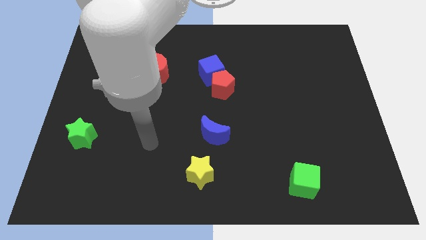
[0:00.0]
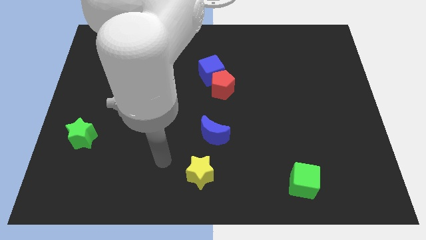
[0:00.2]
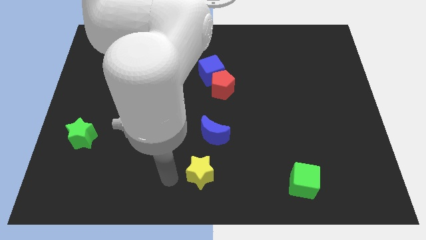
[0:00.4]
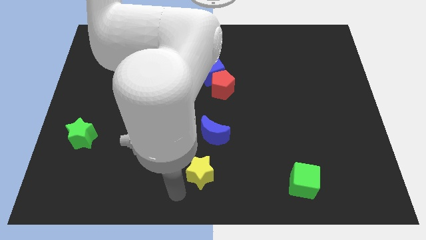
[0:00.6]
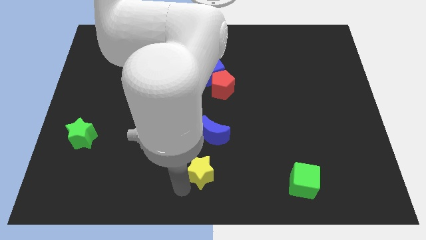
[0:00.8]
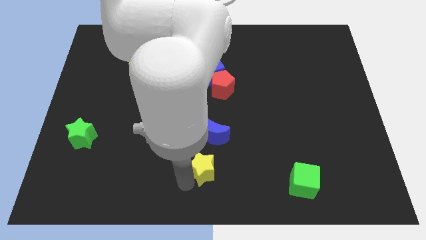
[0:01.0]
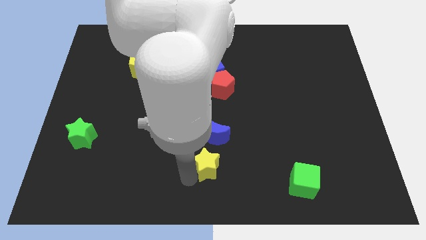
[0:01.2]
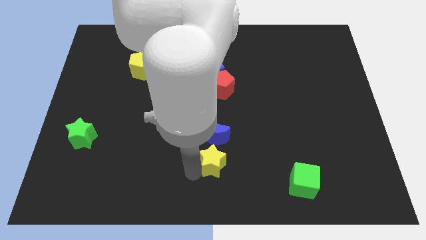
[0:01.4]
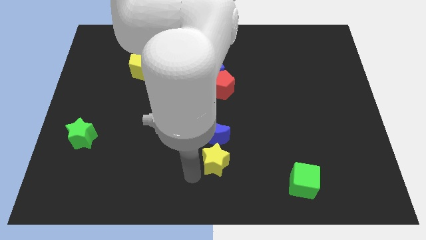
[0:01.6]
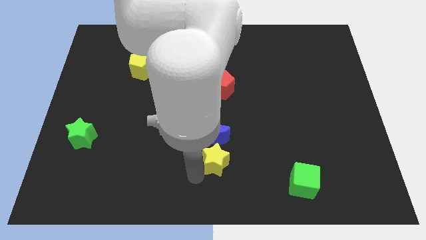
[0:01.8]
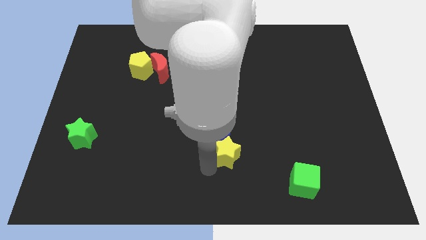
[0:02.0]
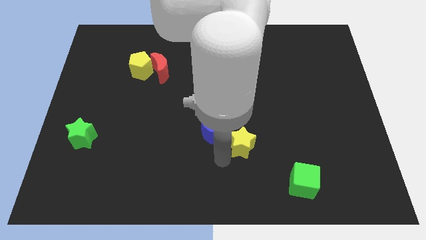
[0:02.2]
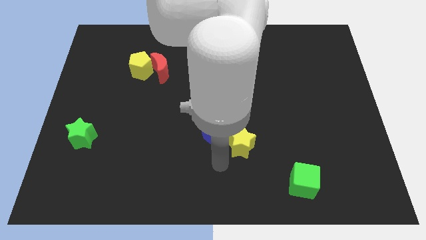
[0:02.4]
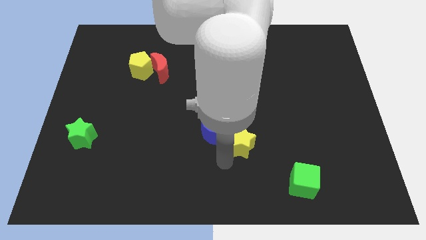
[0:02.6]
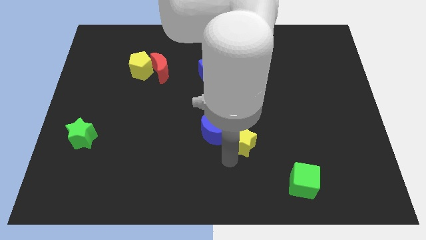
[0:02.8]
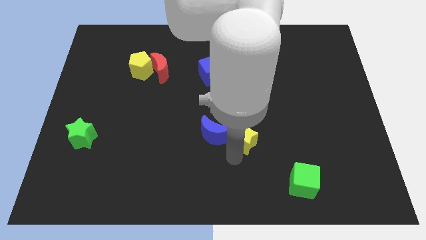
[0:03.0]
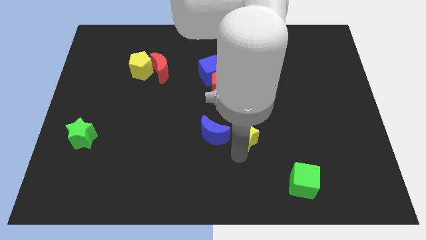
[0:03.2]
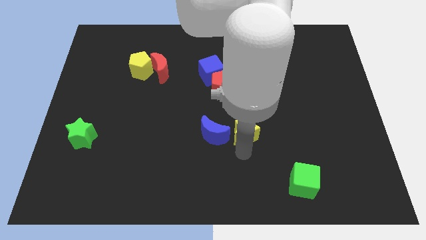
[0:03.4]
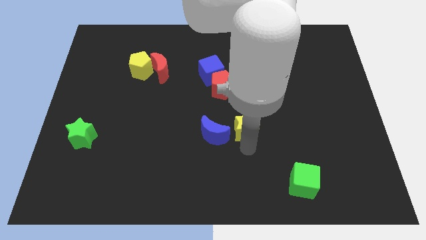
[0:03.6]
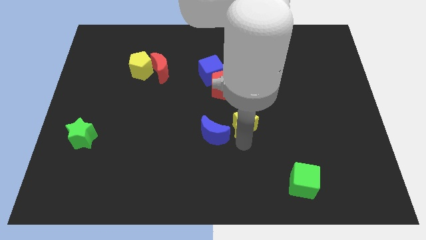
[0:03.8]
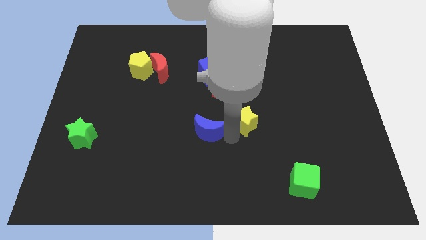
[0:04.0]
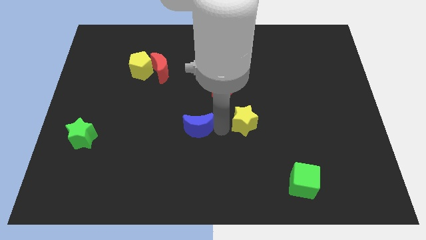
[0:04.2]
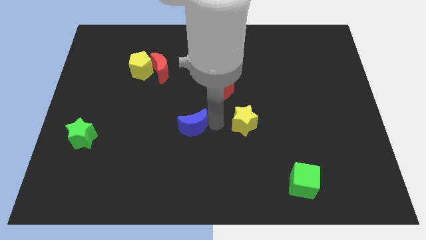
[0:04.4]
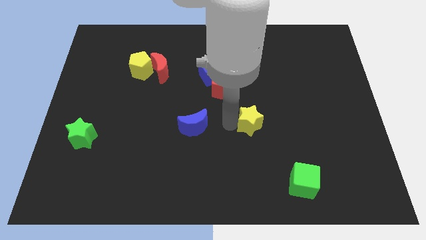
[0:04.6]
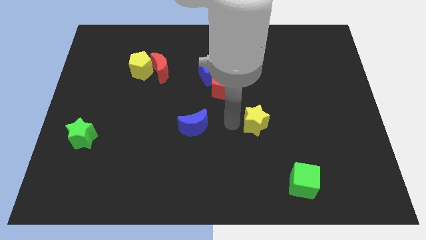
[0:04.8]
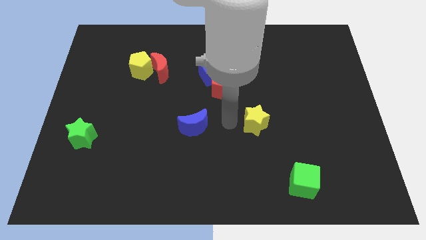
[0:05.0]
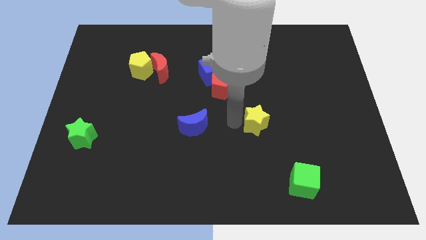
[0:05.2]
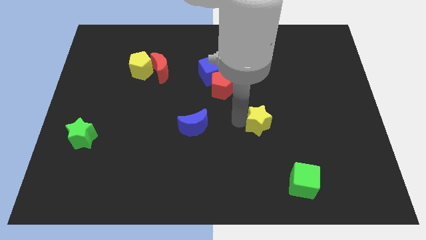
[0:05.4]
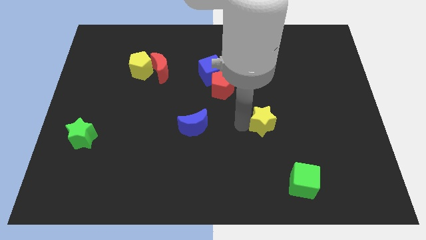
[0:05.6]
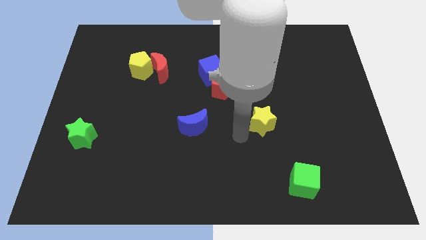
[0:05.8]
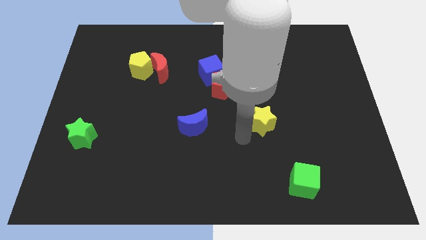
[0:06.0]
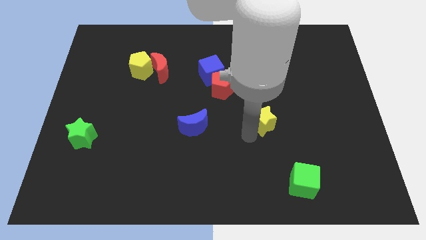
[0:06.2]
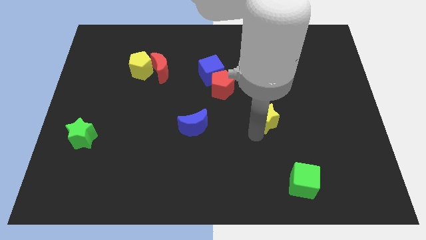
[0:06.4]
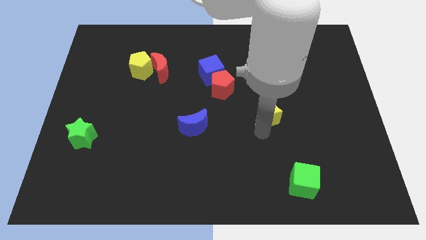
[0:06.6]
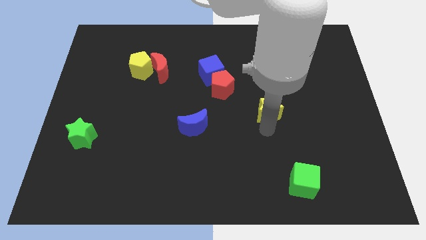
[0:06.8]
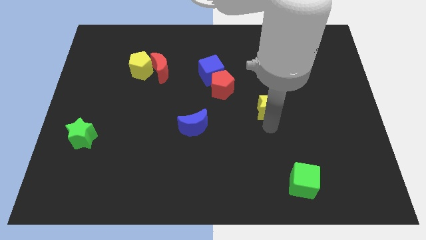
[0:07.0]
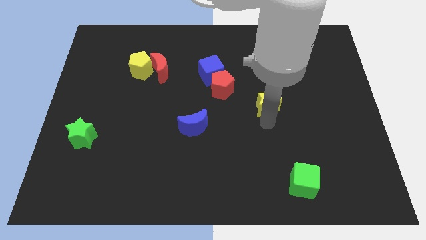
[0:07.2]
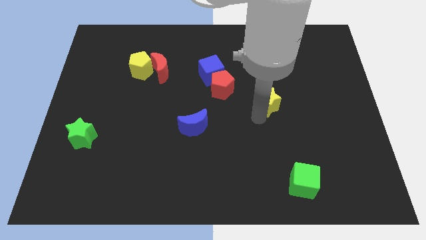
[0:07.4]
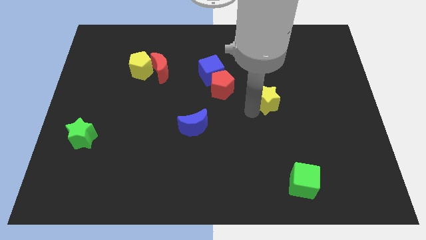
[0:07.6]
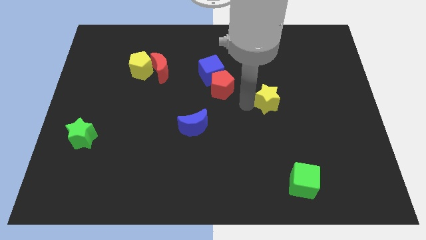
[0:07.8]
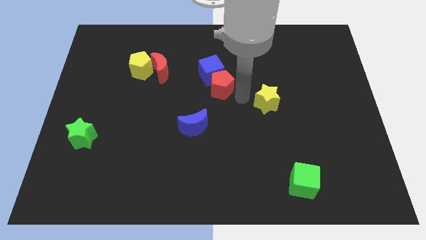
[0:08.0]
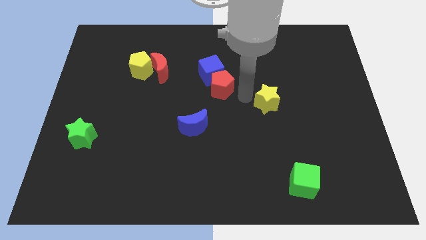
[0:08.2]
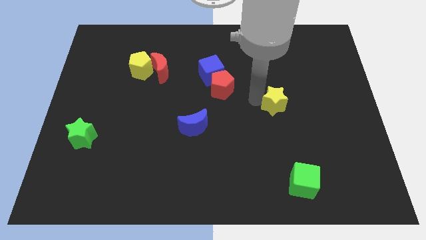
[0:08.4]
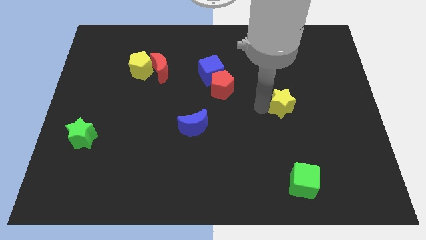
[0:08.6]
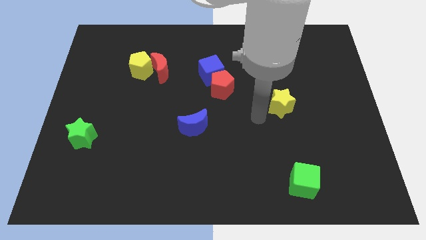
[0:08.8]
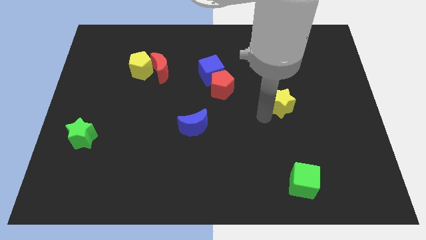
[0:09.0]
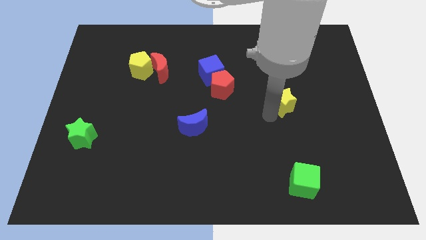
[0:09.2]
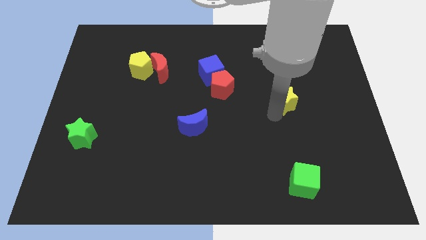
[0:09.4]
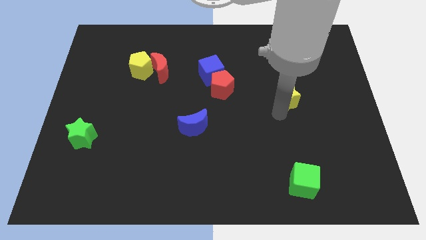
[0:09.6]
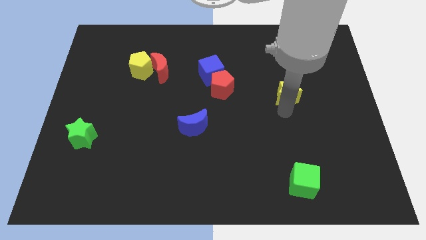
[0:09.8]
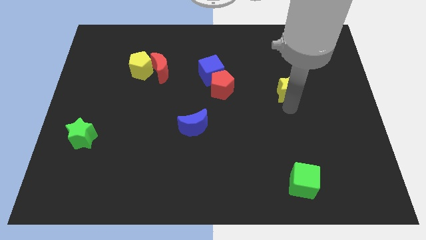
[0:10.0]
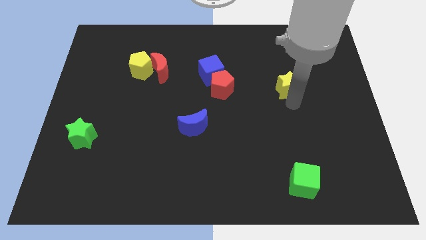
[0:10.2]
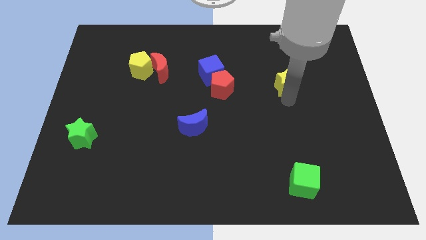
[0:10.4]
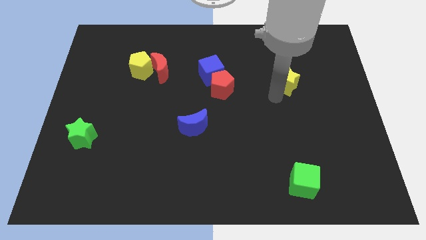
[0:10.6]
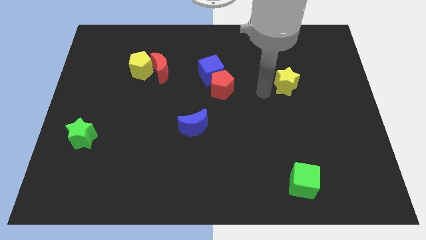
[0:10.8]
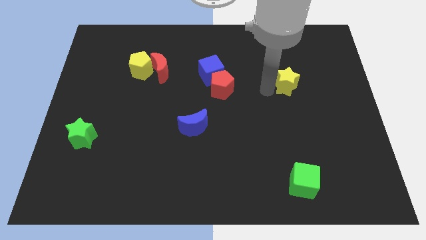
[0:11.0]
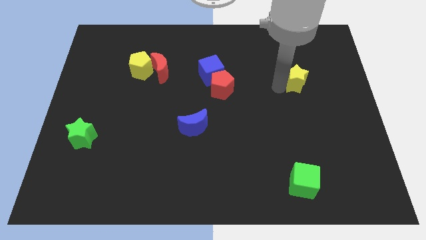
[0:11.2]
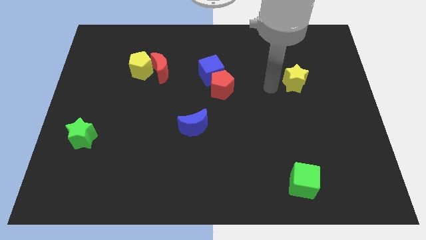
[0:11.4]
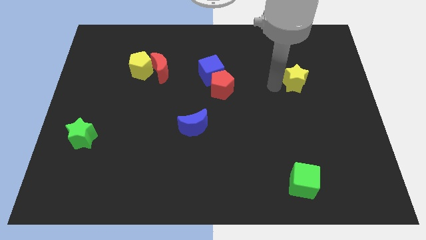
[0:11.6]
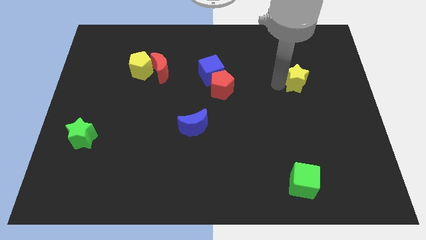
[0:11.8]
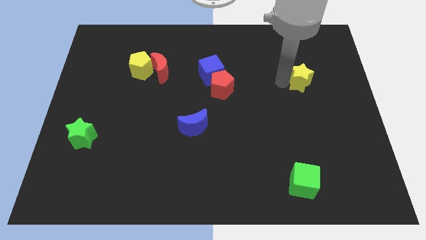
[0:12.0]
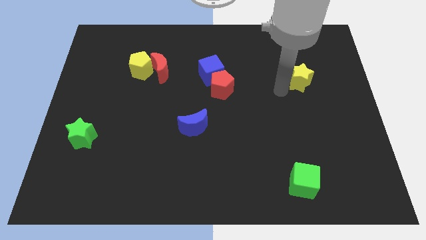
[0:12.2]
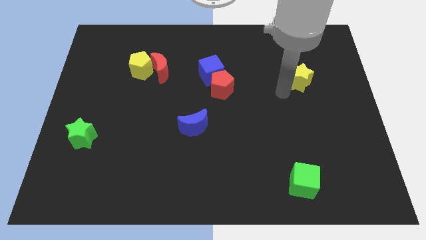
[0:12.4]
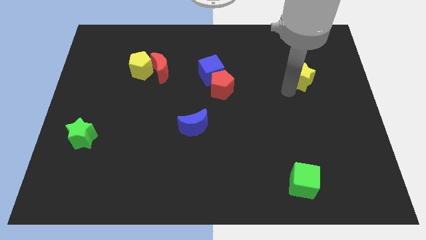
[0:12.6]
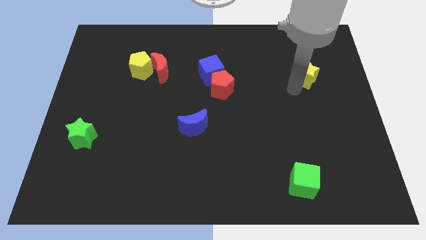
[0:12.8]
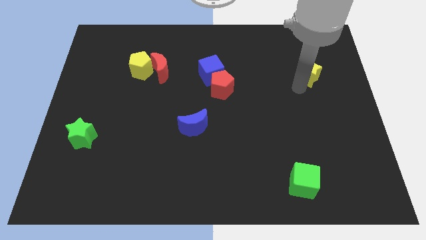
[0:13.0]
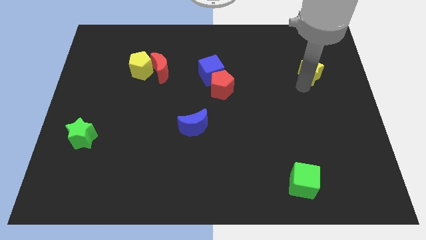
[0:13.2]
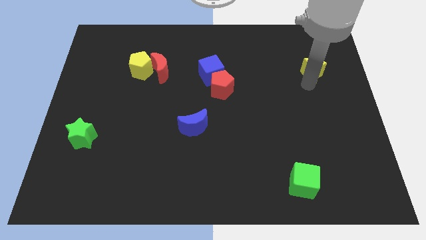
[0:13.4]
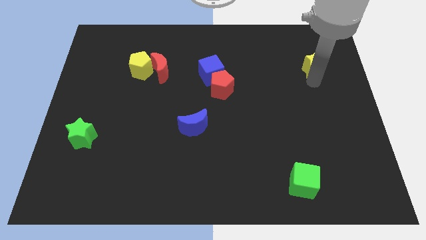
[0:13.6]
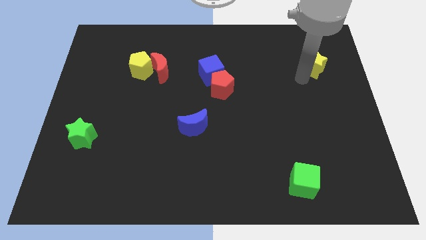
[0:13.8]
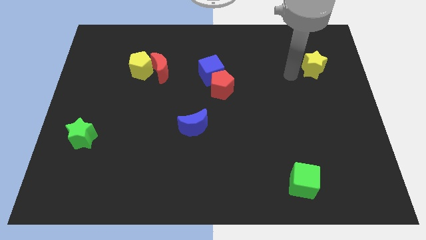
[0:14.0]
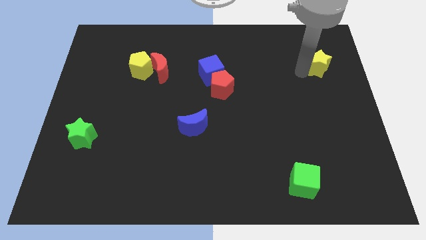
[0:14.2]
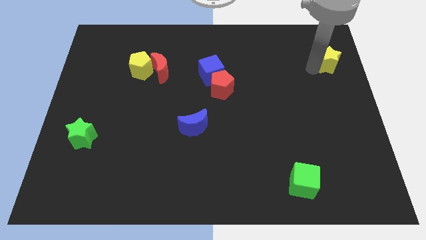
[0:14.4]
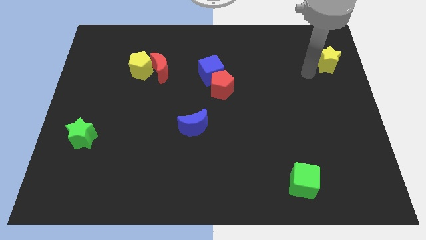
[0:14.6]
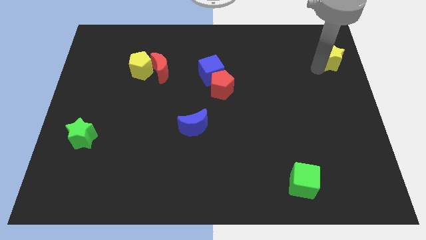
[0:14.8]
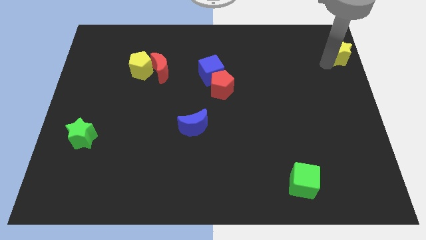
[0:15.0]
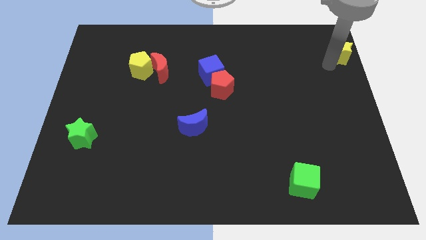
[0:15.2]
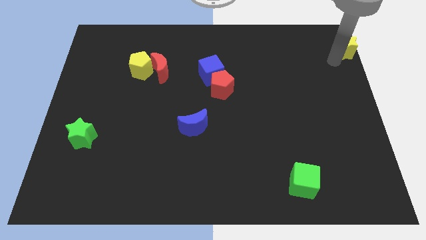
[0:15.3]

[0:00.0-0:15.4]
push the yellow star to the top right
